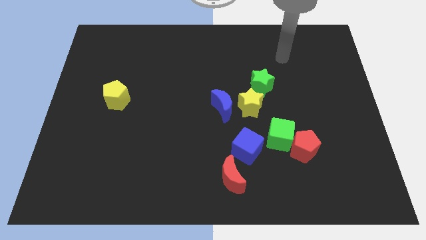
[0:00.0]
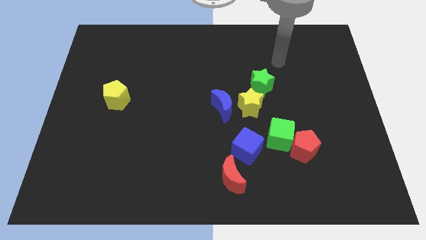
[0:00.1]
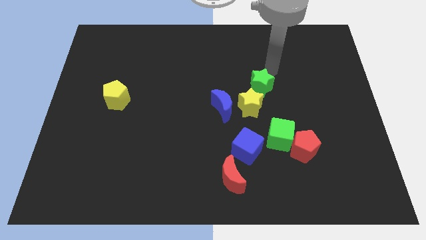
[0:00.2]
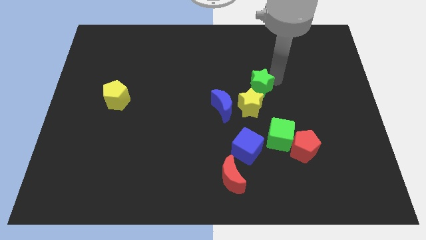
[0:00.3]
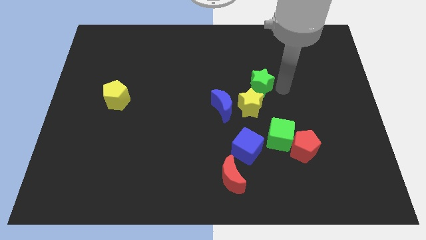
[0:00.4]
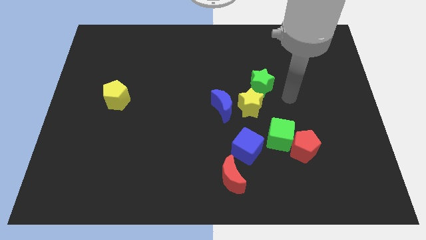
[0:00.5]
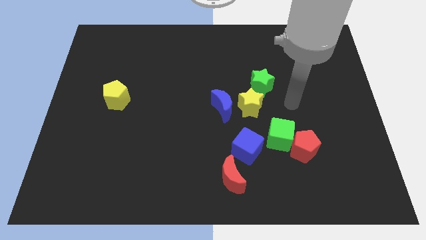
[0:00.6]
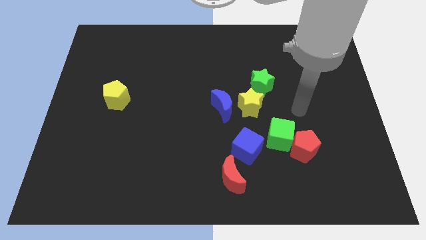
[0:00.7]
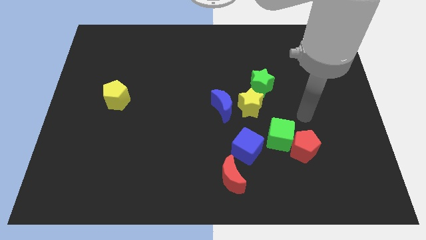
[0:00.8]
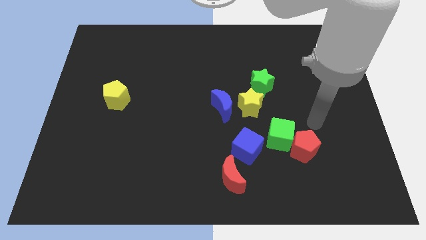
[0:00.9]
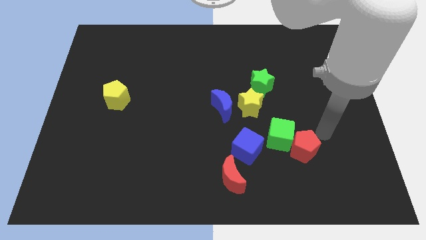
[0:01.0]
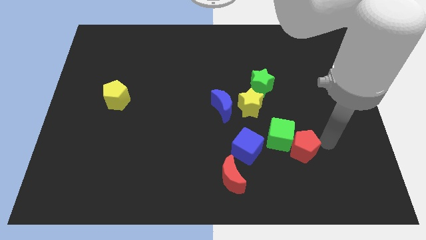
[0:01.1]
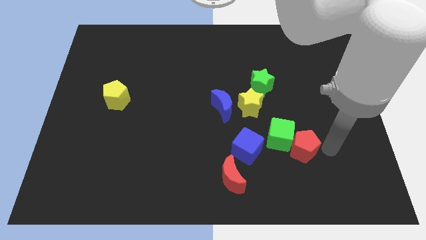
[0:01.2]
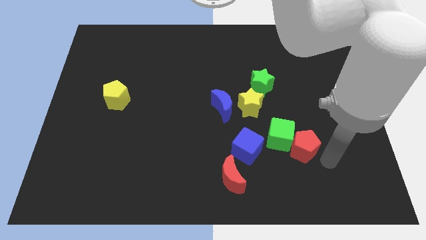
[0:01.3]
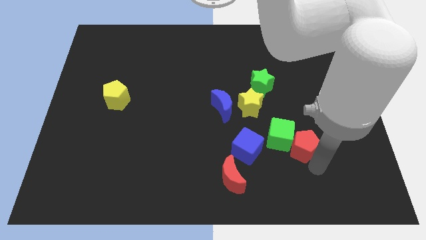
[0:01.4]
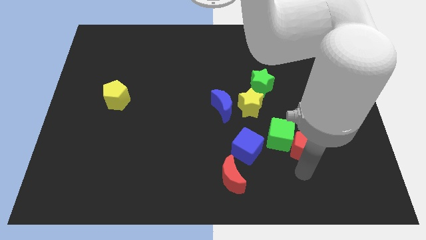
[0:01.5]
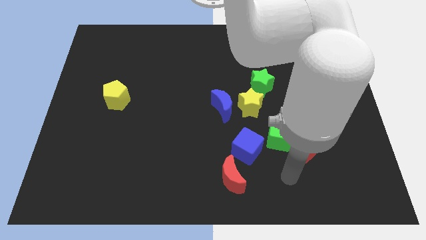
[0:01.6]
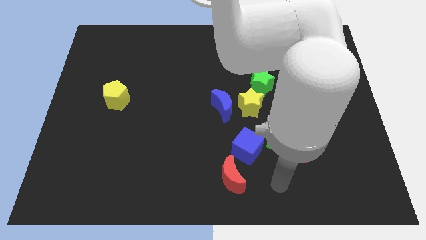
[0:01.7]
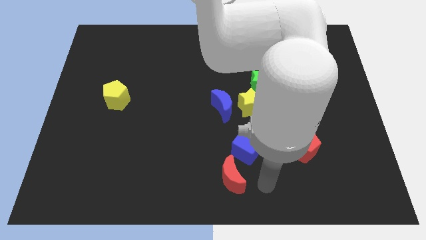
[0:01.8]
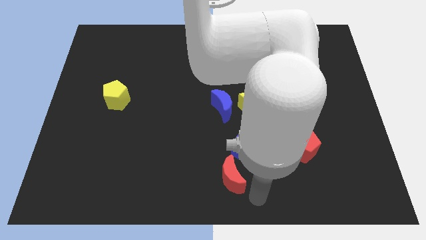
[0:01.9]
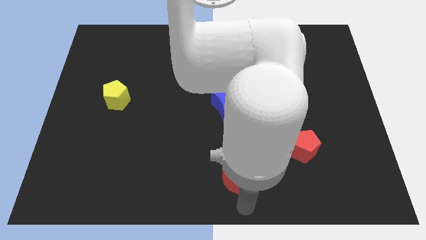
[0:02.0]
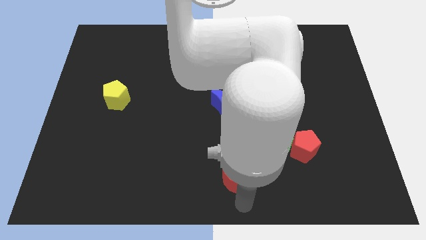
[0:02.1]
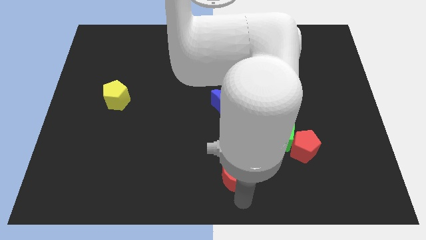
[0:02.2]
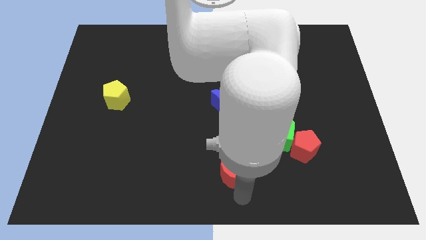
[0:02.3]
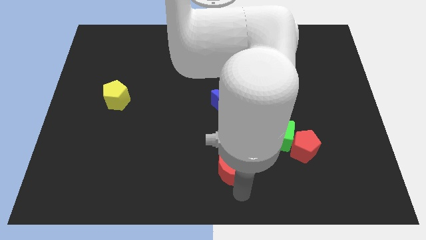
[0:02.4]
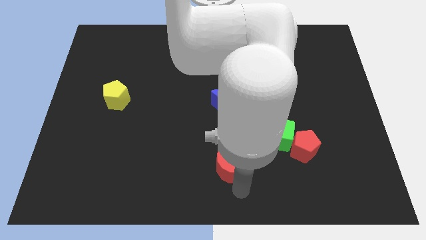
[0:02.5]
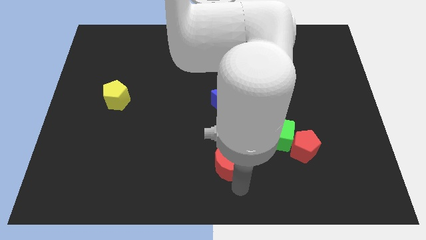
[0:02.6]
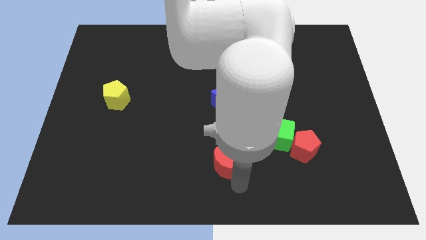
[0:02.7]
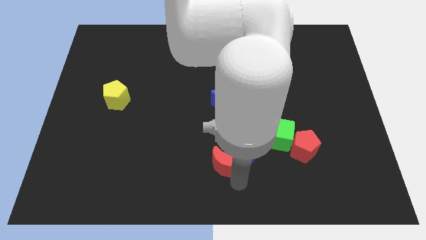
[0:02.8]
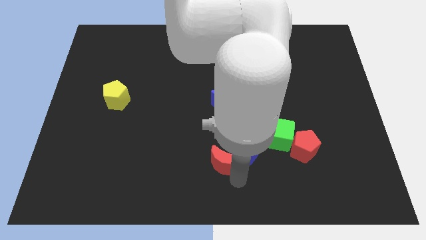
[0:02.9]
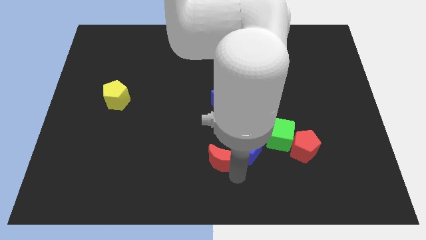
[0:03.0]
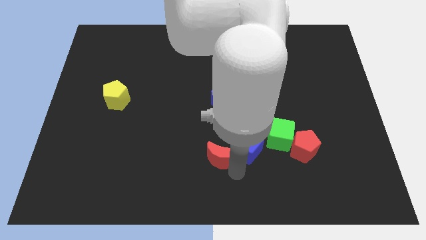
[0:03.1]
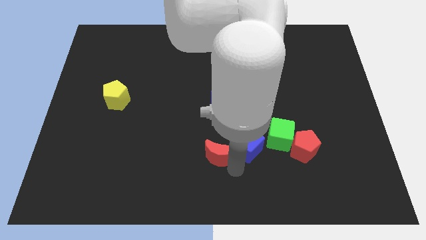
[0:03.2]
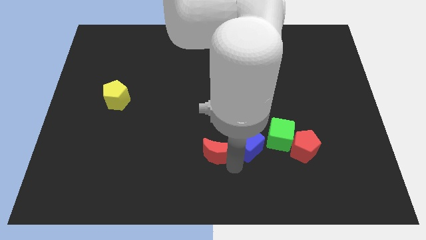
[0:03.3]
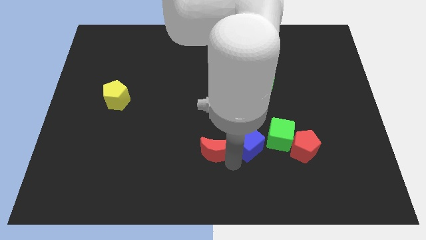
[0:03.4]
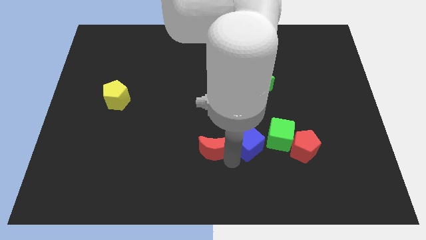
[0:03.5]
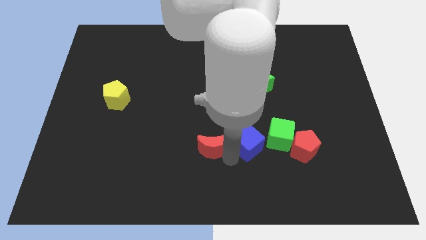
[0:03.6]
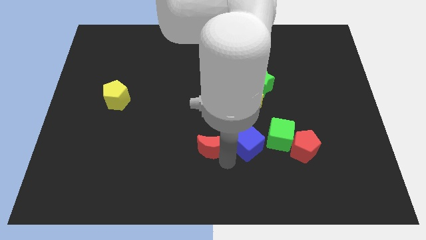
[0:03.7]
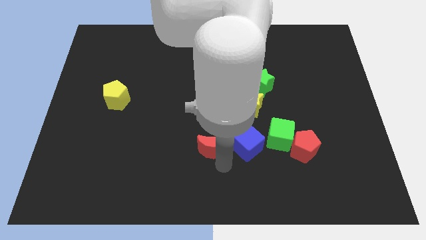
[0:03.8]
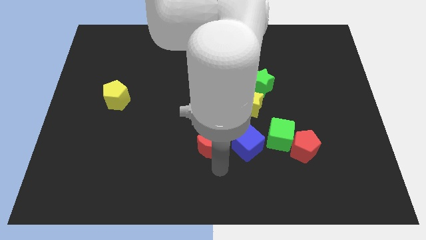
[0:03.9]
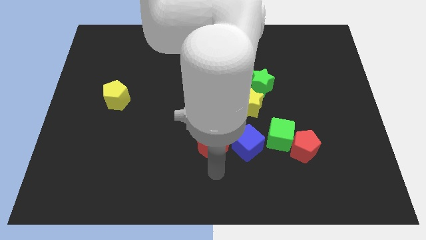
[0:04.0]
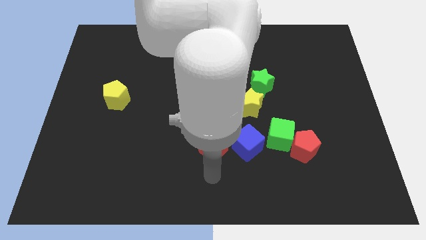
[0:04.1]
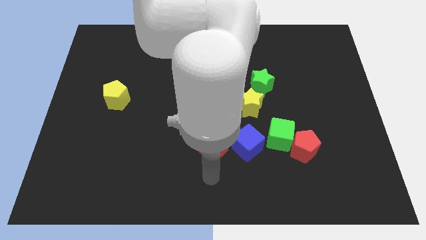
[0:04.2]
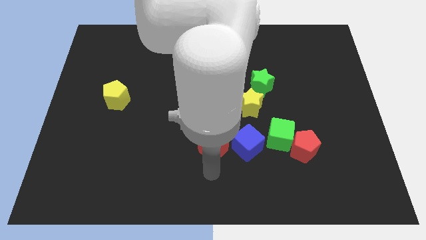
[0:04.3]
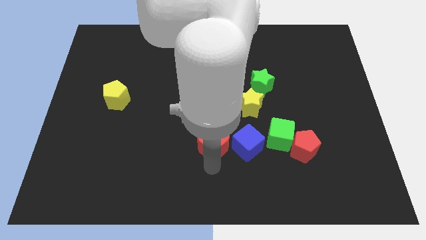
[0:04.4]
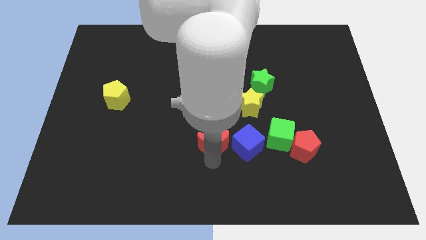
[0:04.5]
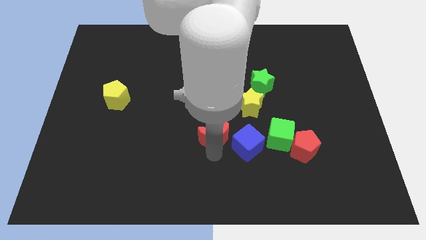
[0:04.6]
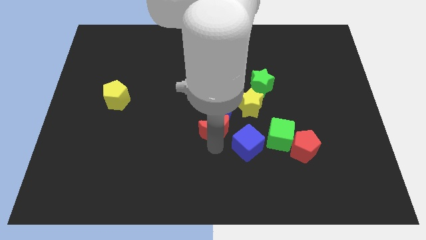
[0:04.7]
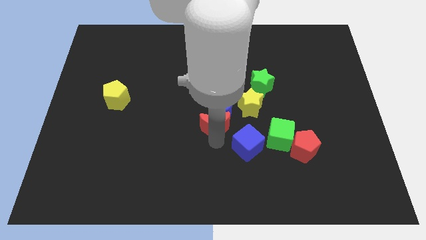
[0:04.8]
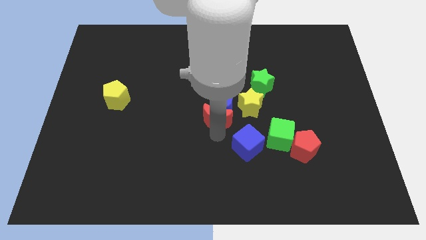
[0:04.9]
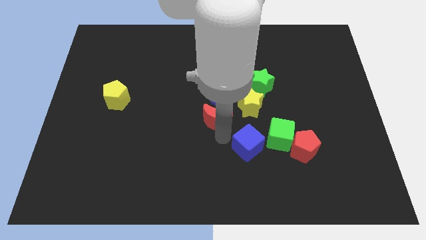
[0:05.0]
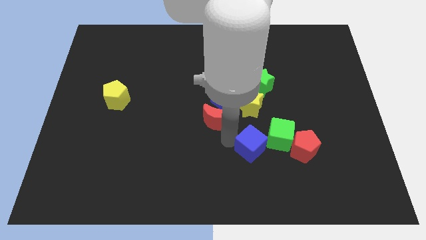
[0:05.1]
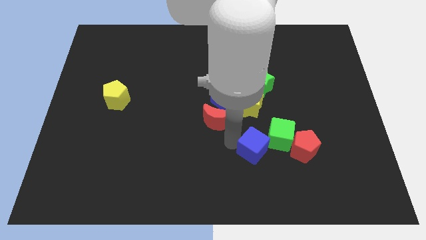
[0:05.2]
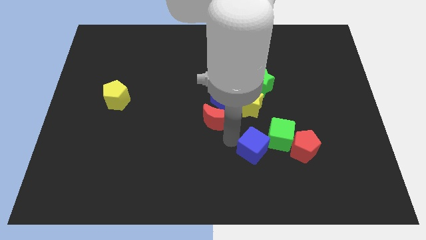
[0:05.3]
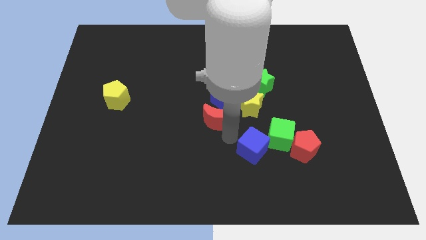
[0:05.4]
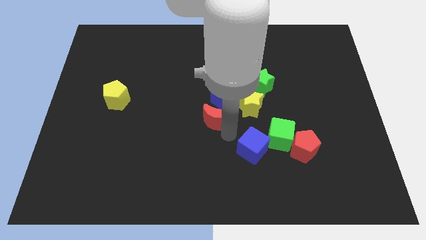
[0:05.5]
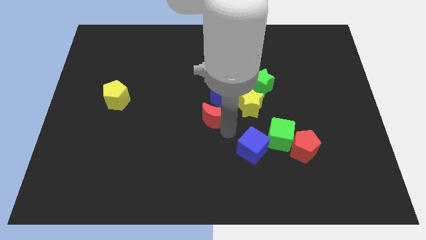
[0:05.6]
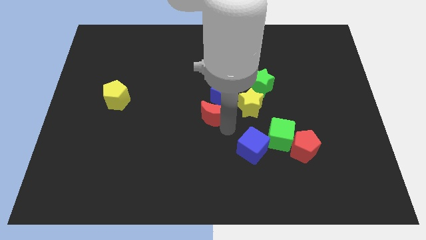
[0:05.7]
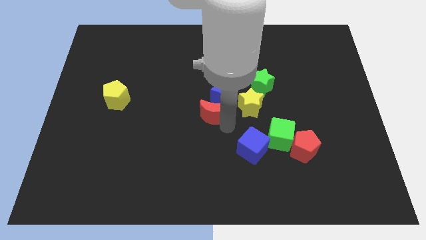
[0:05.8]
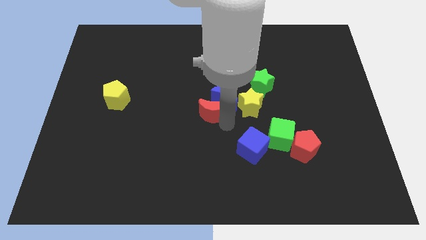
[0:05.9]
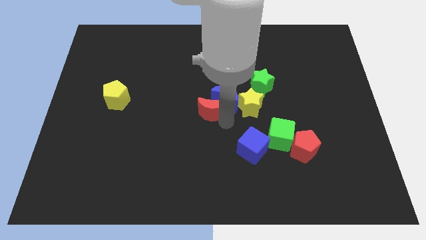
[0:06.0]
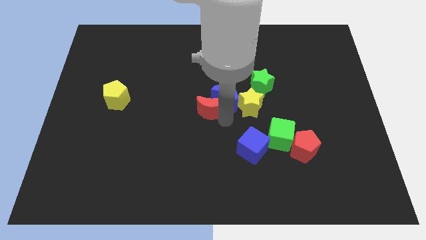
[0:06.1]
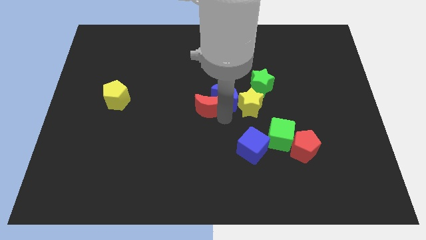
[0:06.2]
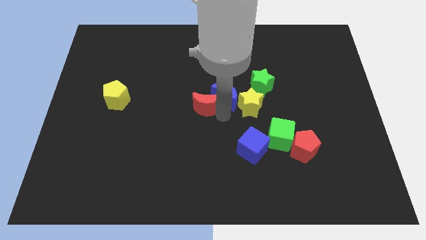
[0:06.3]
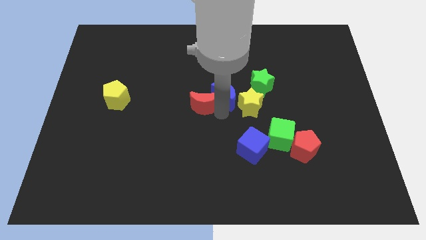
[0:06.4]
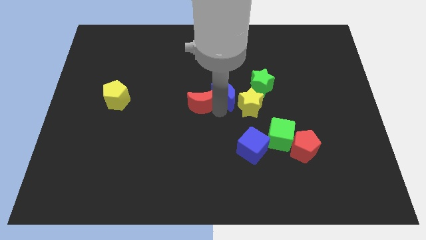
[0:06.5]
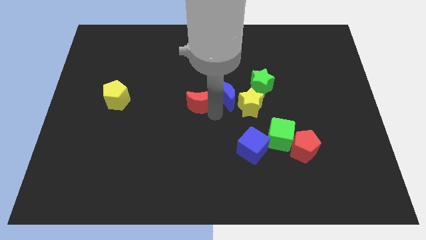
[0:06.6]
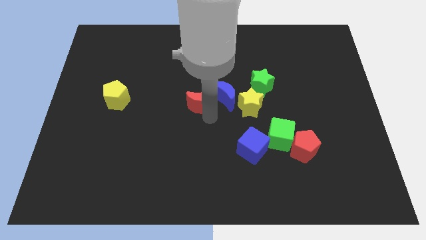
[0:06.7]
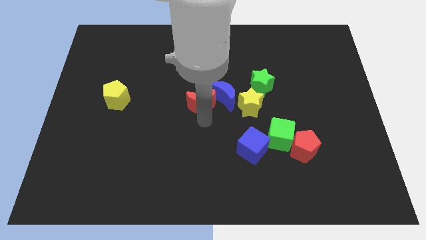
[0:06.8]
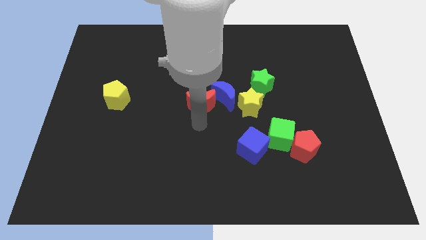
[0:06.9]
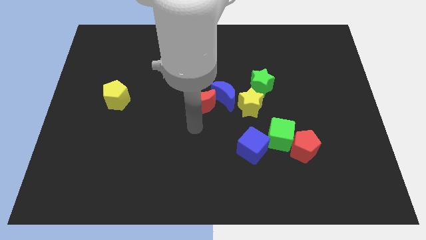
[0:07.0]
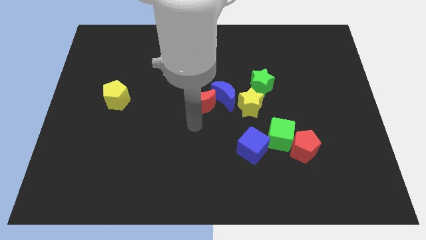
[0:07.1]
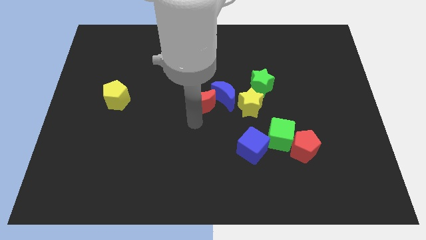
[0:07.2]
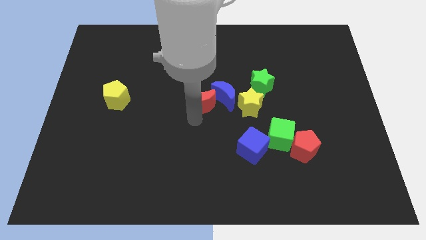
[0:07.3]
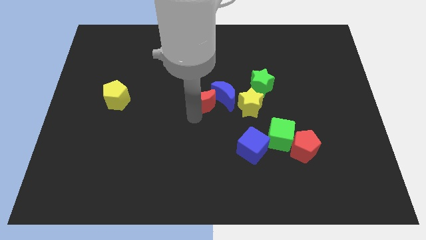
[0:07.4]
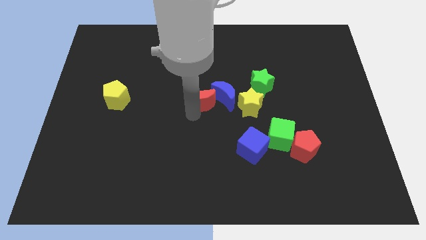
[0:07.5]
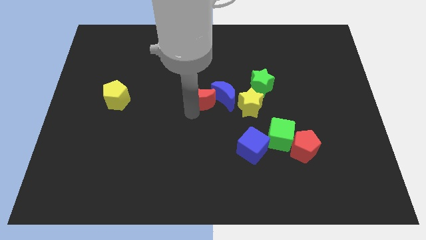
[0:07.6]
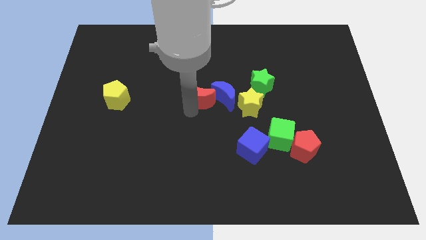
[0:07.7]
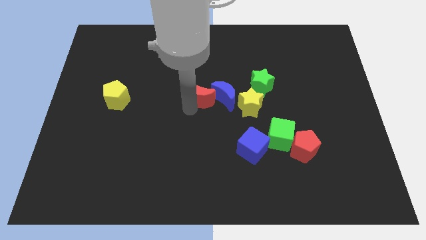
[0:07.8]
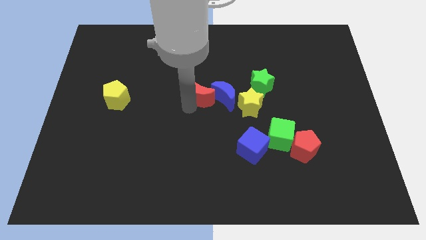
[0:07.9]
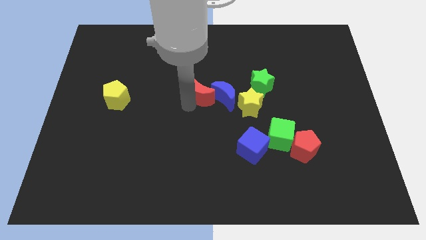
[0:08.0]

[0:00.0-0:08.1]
push the red moon up
